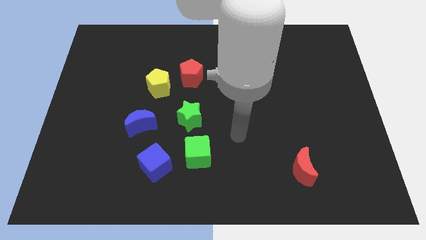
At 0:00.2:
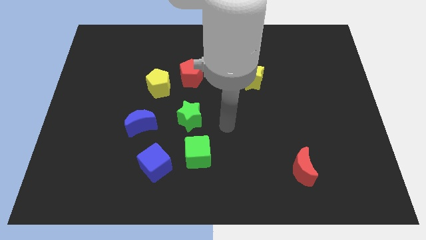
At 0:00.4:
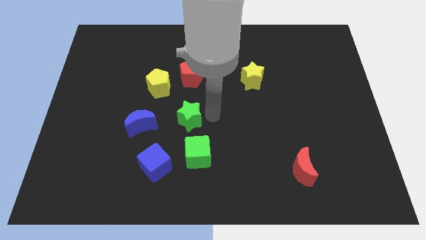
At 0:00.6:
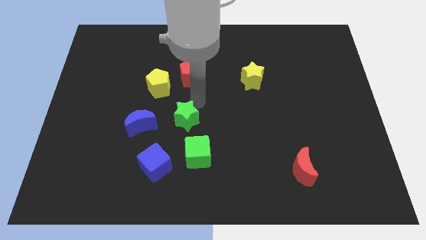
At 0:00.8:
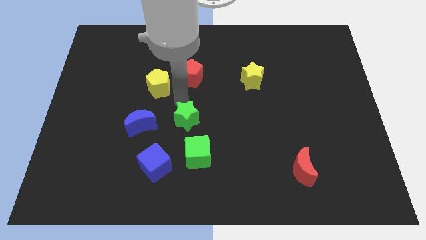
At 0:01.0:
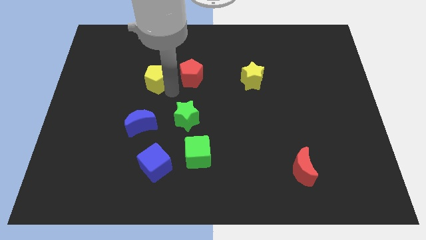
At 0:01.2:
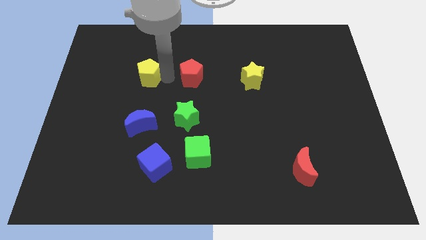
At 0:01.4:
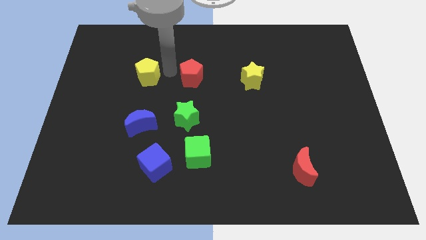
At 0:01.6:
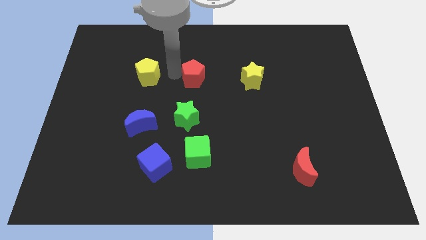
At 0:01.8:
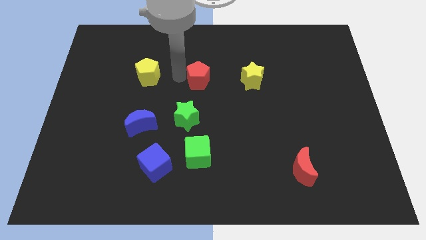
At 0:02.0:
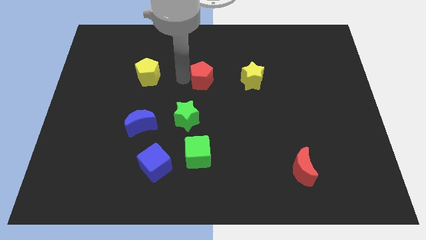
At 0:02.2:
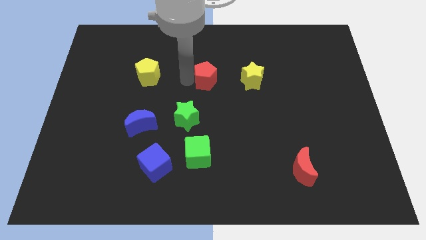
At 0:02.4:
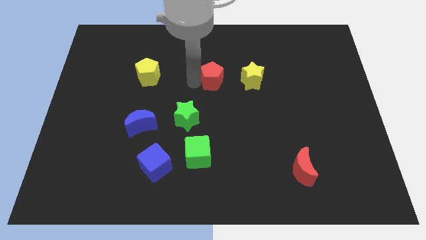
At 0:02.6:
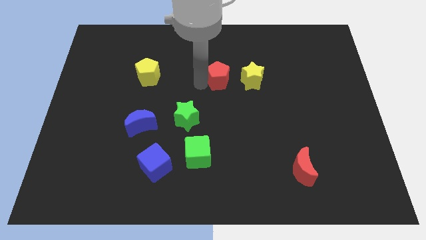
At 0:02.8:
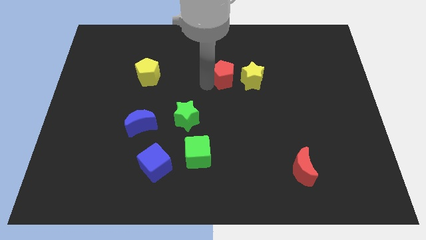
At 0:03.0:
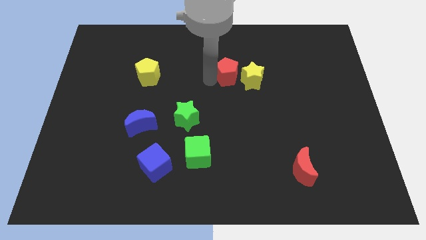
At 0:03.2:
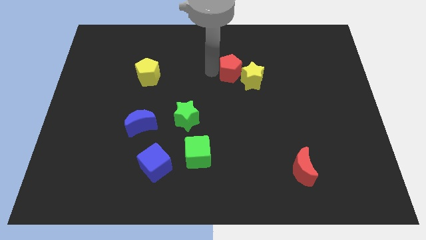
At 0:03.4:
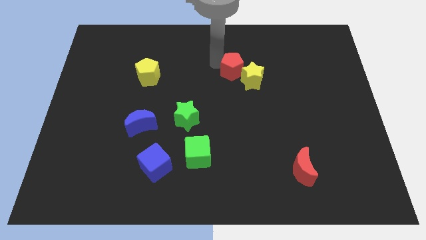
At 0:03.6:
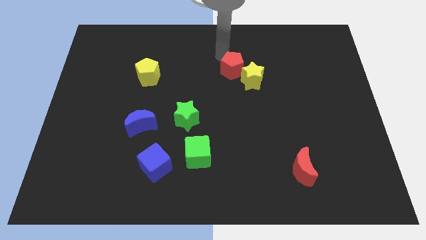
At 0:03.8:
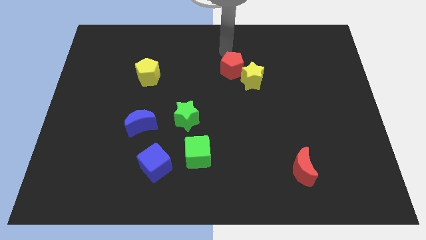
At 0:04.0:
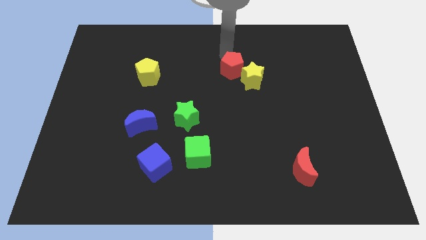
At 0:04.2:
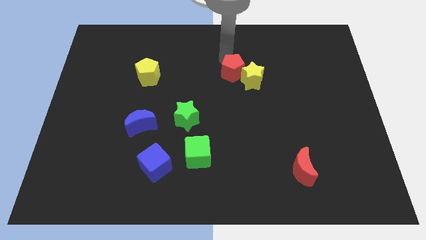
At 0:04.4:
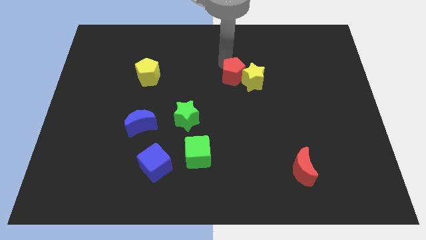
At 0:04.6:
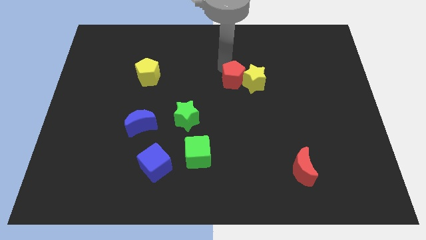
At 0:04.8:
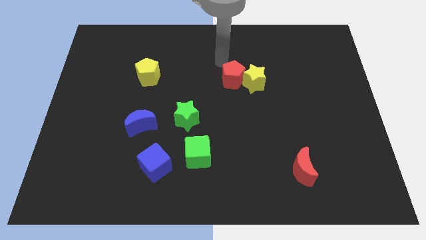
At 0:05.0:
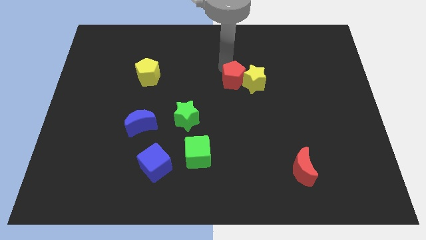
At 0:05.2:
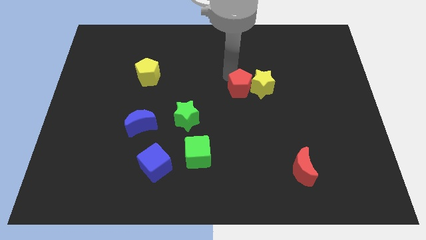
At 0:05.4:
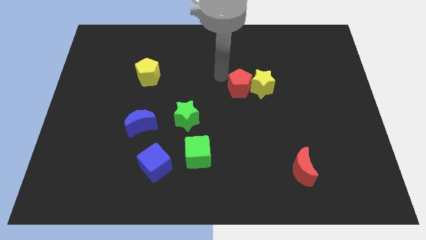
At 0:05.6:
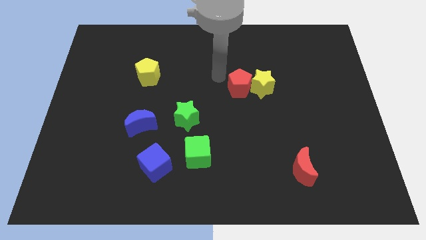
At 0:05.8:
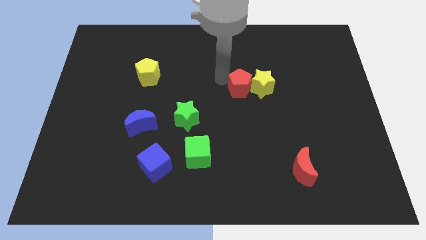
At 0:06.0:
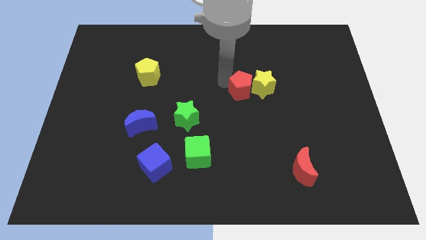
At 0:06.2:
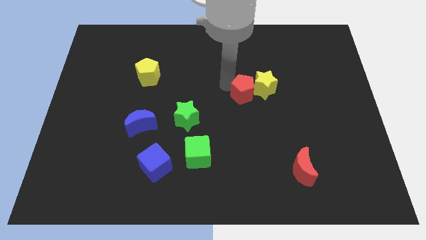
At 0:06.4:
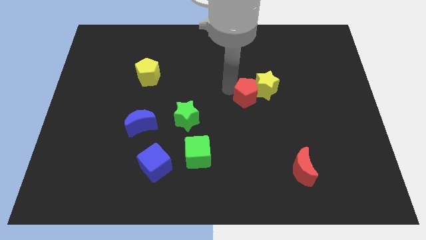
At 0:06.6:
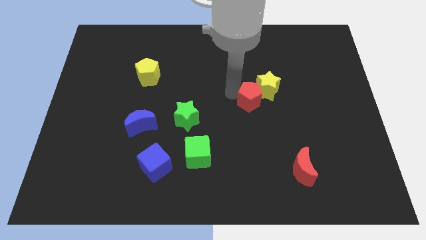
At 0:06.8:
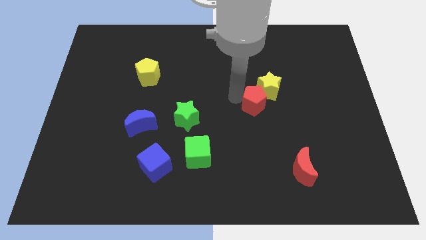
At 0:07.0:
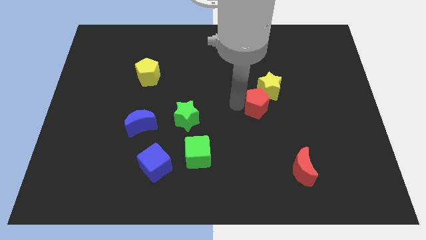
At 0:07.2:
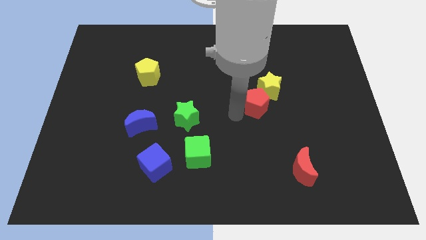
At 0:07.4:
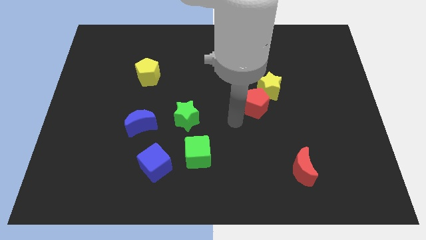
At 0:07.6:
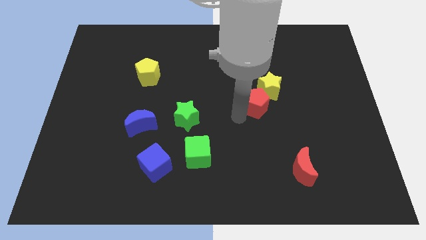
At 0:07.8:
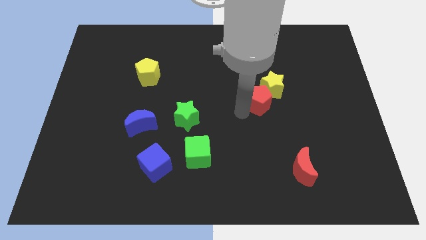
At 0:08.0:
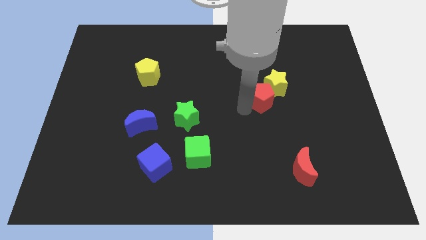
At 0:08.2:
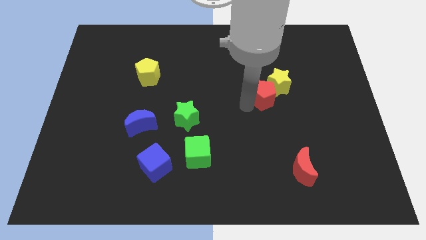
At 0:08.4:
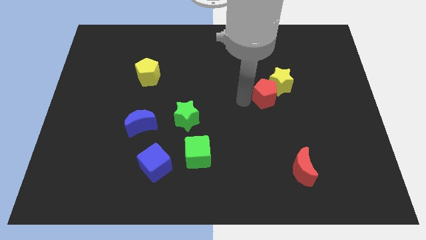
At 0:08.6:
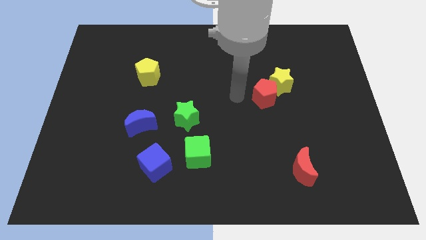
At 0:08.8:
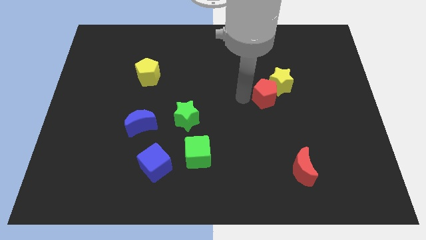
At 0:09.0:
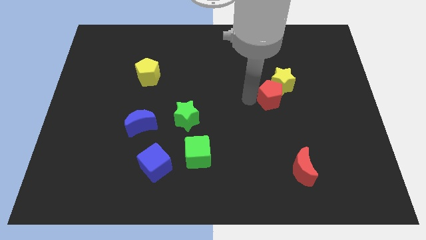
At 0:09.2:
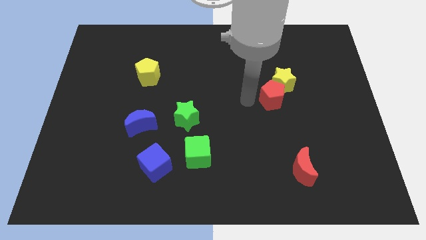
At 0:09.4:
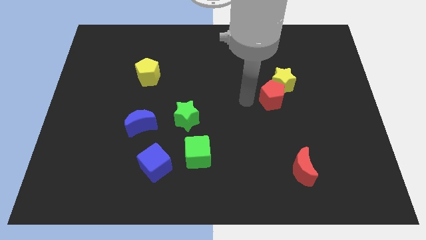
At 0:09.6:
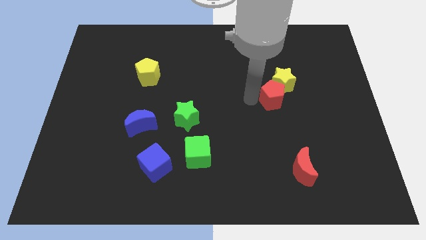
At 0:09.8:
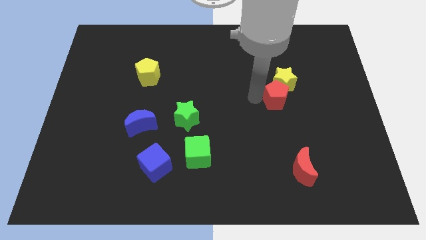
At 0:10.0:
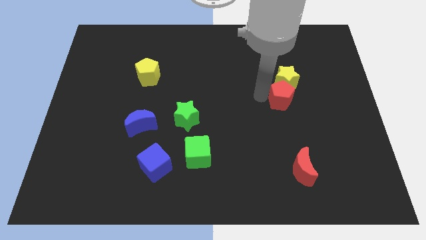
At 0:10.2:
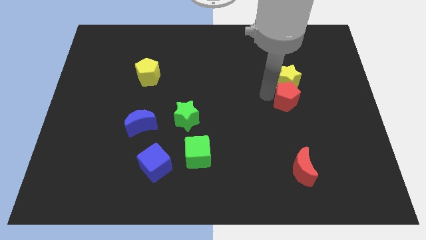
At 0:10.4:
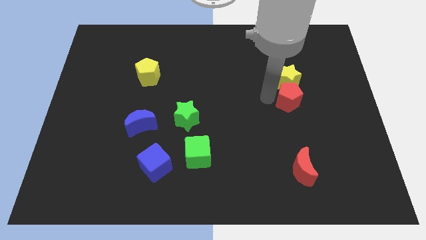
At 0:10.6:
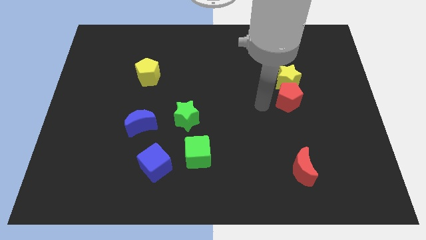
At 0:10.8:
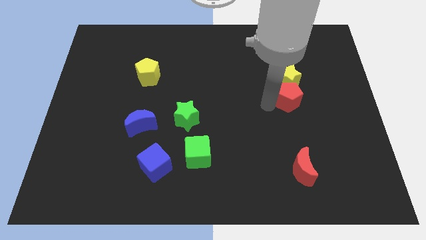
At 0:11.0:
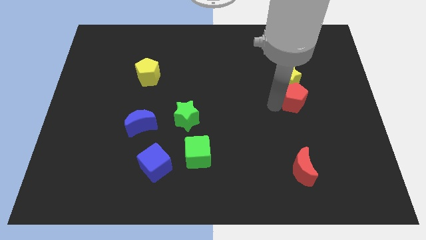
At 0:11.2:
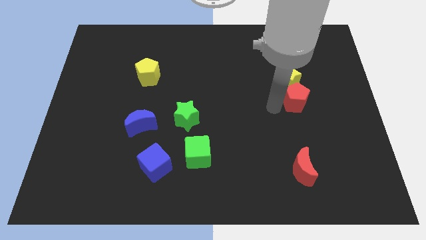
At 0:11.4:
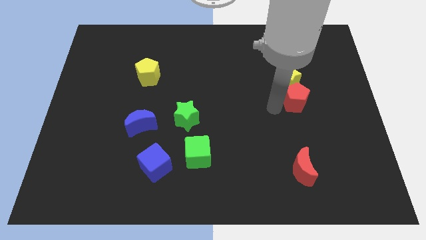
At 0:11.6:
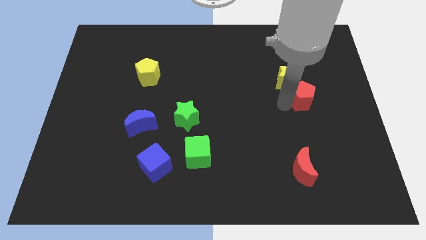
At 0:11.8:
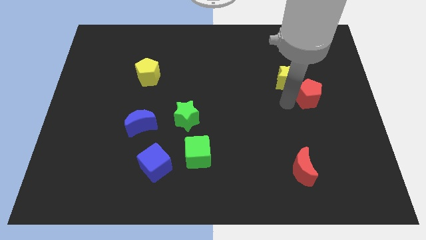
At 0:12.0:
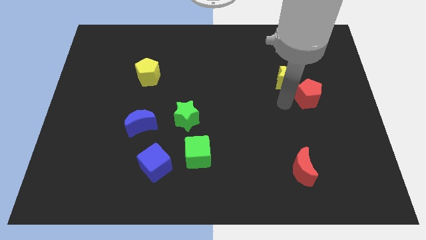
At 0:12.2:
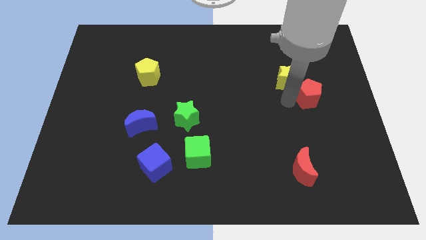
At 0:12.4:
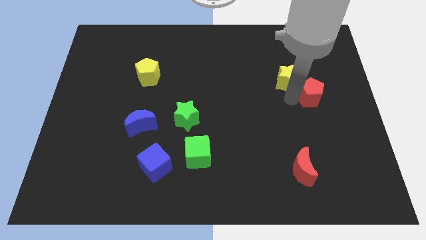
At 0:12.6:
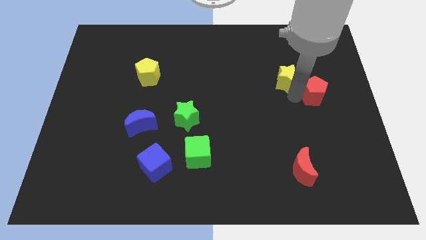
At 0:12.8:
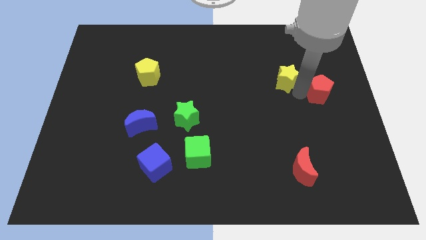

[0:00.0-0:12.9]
push the red pentagon to the center right

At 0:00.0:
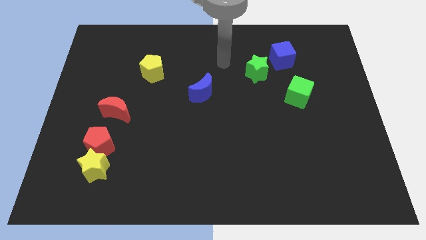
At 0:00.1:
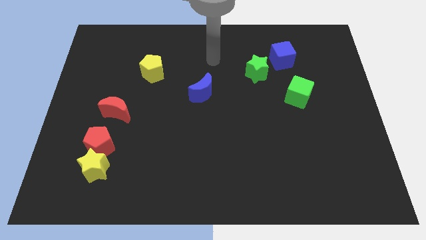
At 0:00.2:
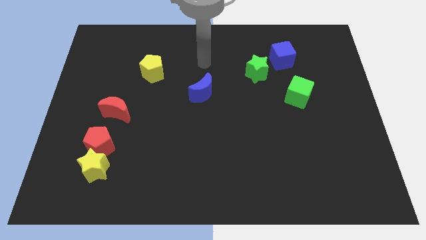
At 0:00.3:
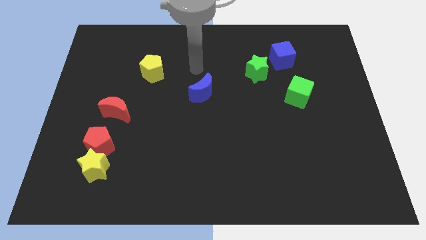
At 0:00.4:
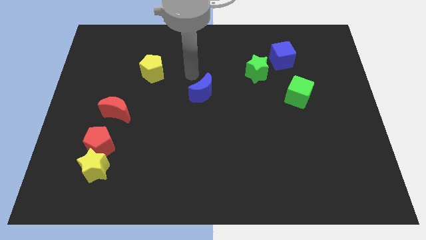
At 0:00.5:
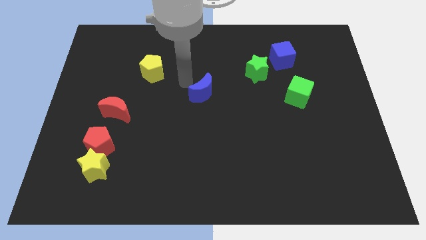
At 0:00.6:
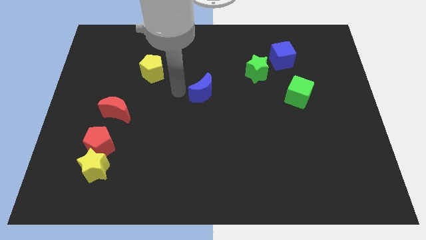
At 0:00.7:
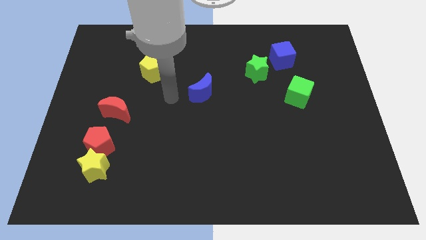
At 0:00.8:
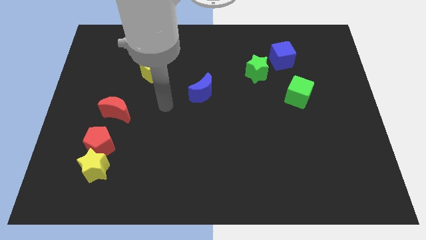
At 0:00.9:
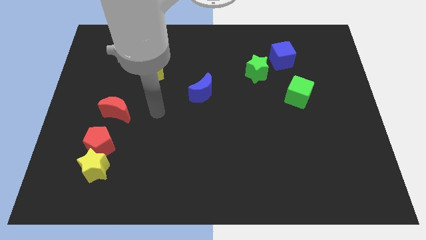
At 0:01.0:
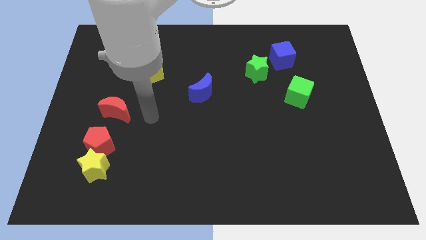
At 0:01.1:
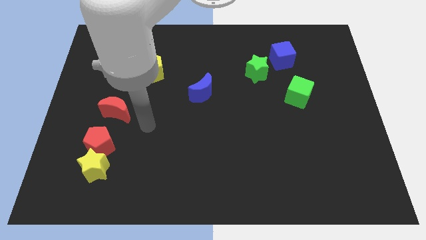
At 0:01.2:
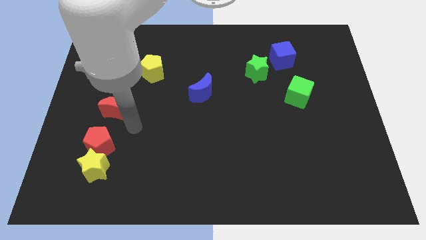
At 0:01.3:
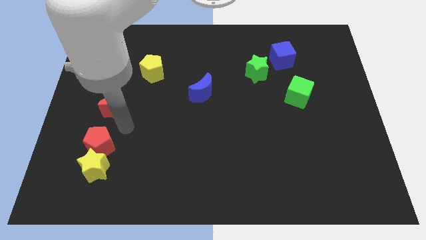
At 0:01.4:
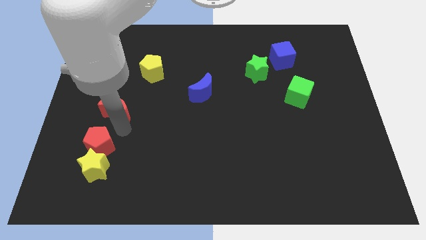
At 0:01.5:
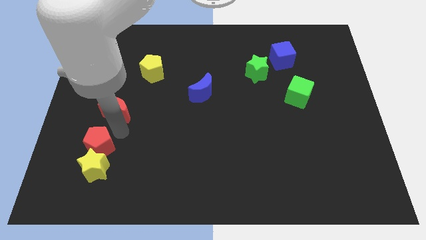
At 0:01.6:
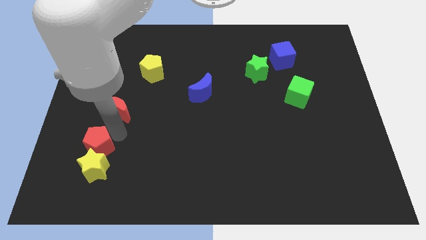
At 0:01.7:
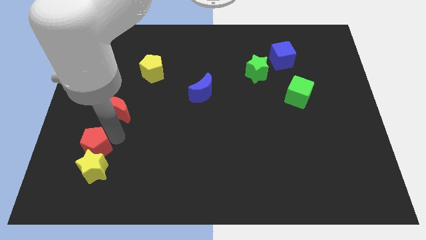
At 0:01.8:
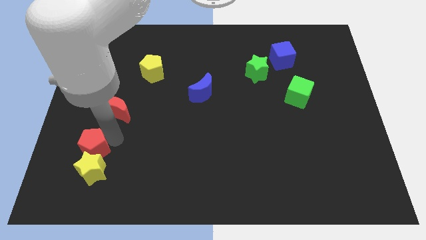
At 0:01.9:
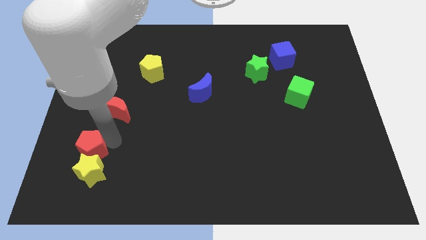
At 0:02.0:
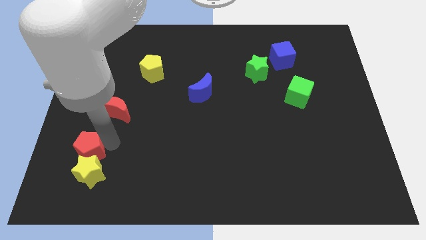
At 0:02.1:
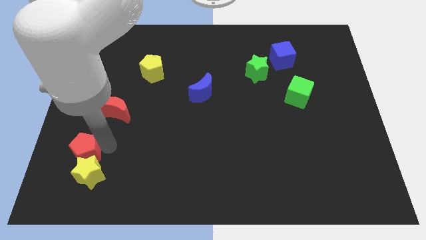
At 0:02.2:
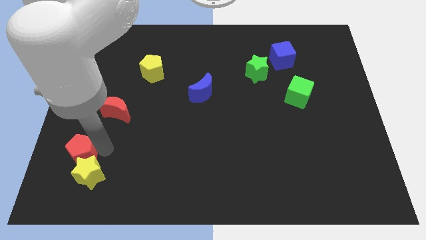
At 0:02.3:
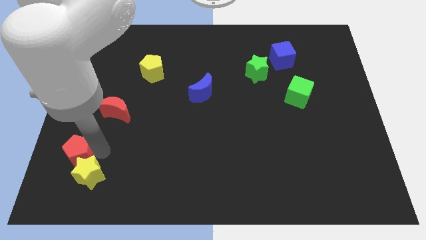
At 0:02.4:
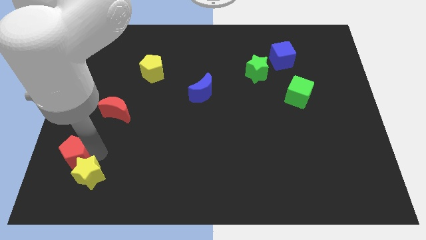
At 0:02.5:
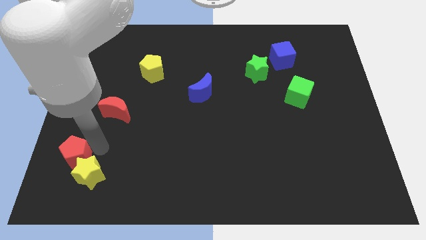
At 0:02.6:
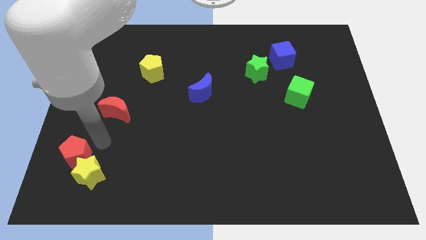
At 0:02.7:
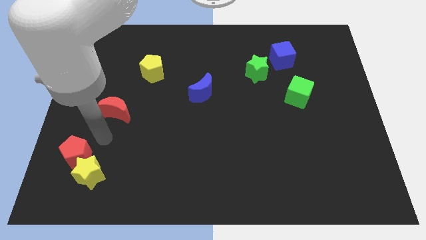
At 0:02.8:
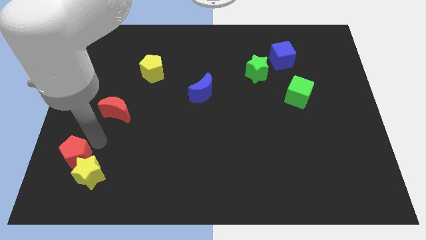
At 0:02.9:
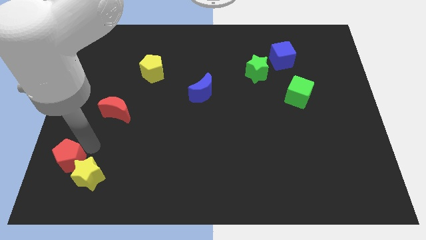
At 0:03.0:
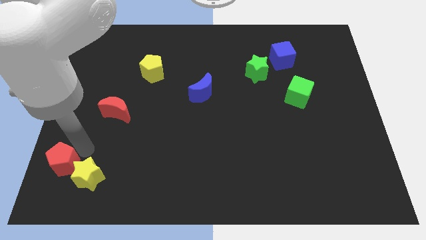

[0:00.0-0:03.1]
put the red pentagon to the bottom left of the board
